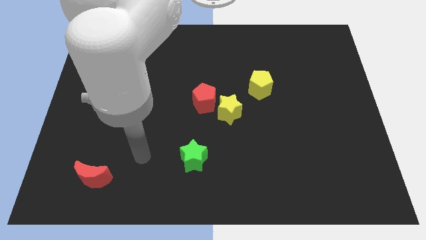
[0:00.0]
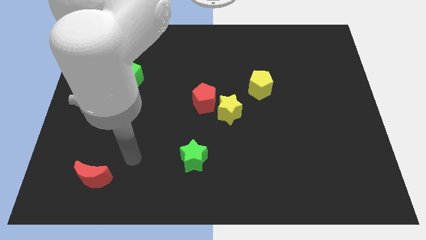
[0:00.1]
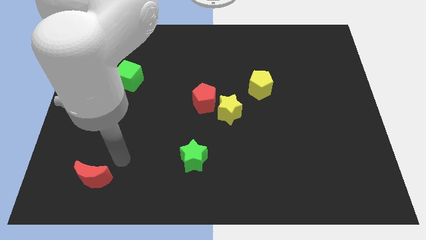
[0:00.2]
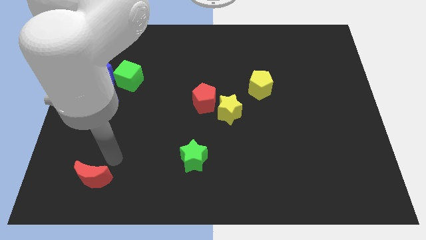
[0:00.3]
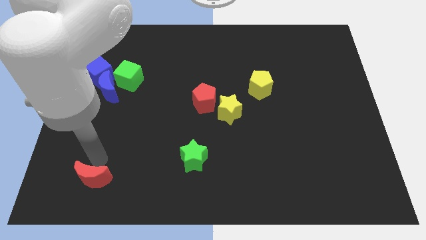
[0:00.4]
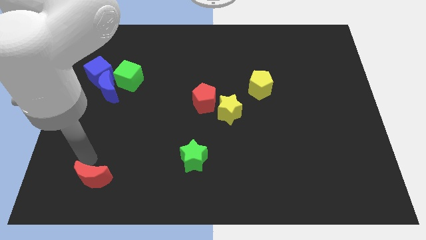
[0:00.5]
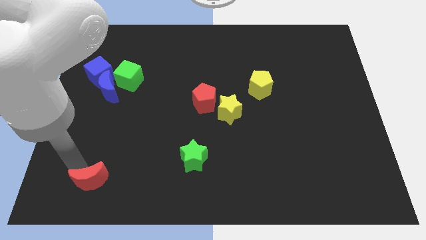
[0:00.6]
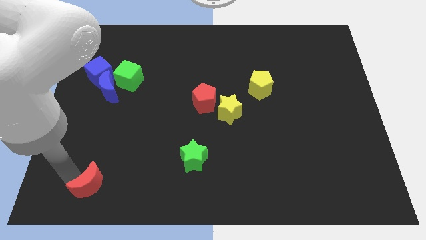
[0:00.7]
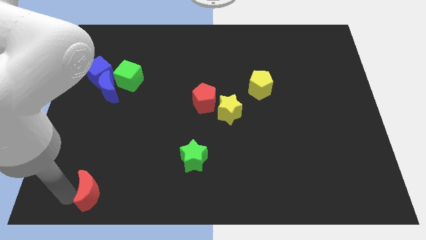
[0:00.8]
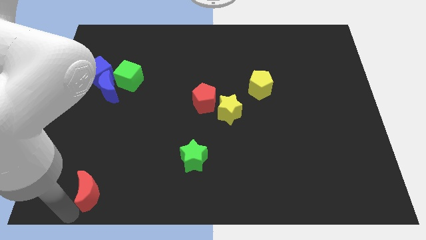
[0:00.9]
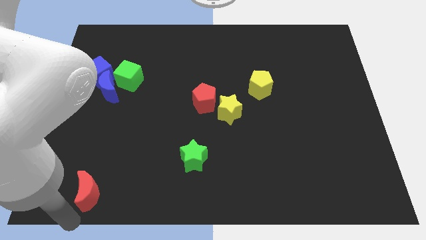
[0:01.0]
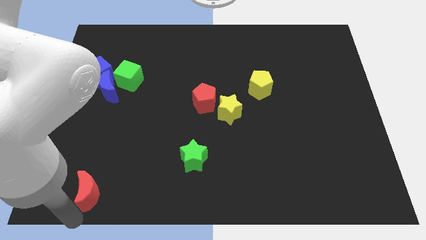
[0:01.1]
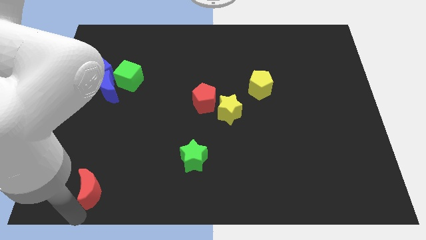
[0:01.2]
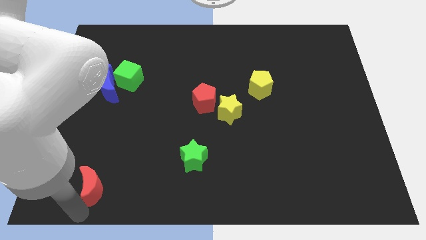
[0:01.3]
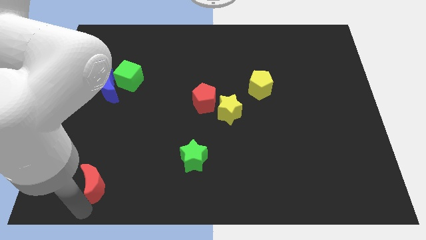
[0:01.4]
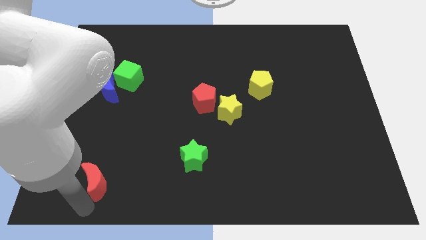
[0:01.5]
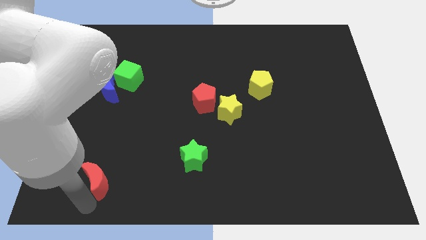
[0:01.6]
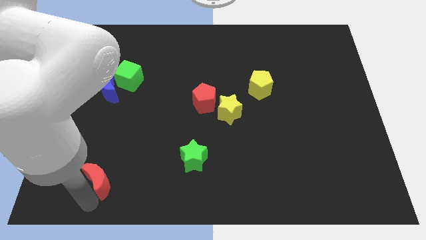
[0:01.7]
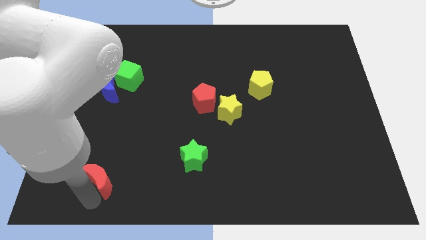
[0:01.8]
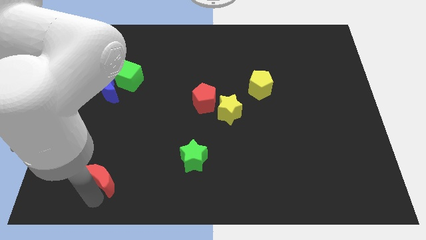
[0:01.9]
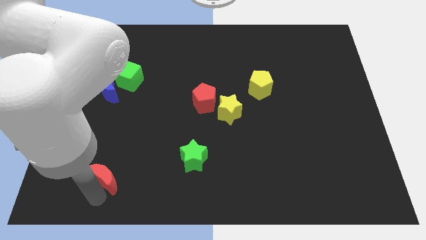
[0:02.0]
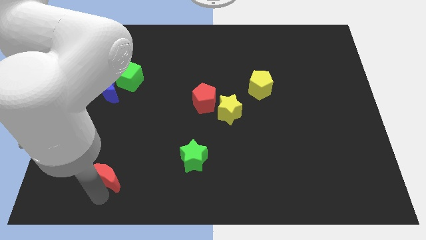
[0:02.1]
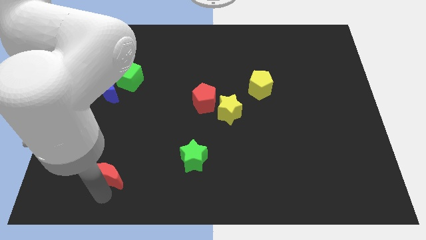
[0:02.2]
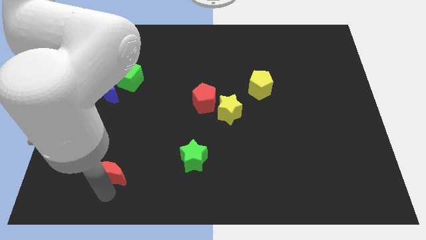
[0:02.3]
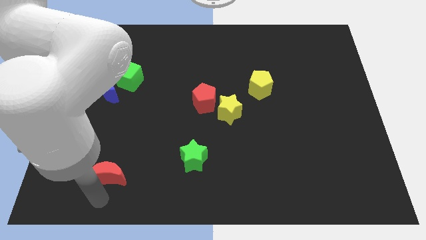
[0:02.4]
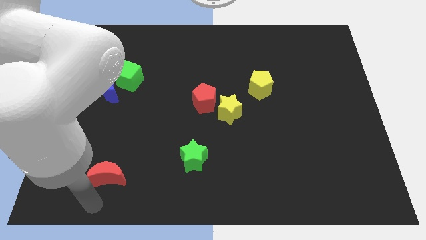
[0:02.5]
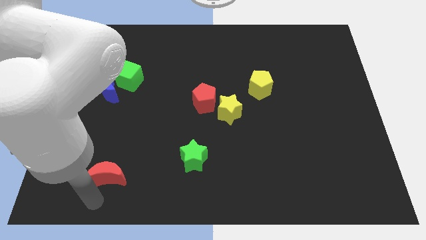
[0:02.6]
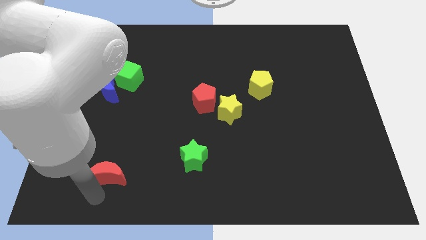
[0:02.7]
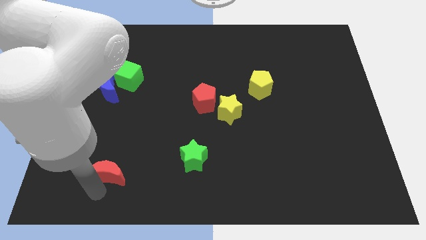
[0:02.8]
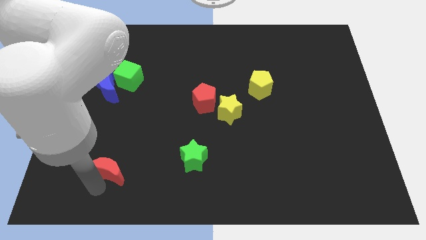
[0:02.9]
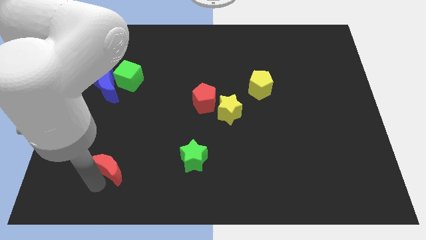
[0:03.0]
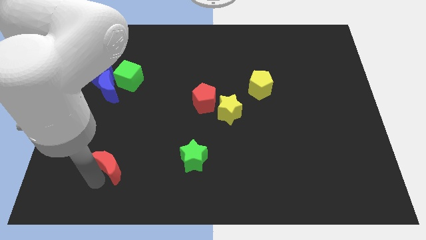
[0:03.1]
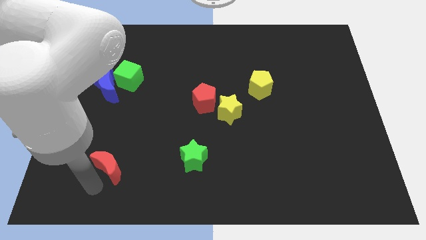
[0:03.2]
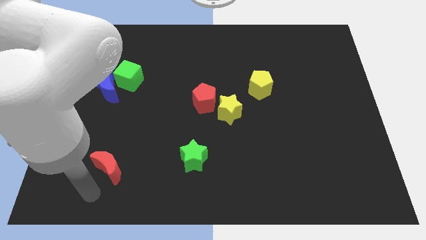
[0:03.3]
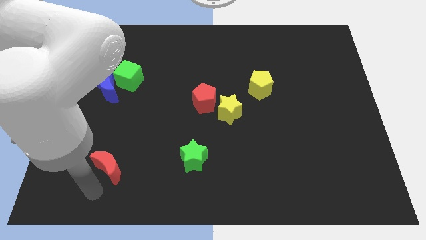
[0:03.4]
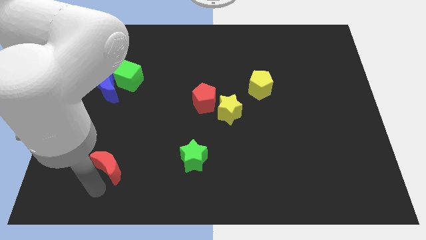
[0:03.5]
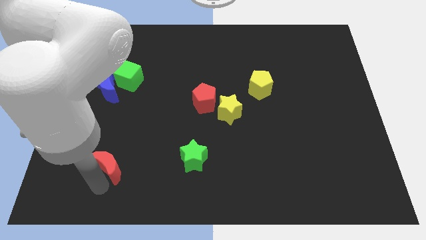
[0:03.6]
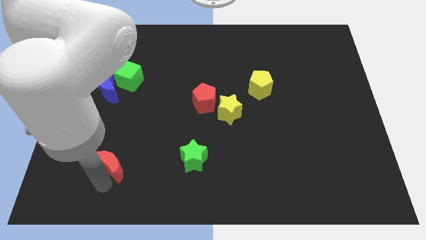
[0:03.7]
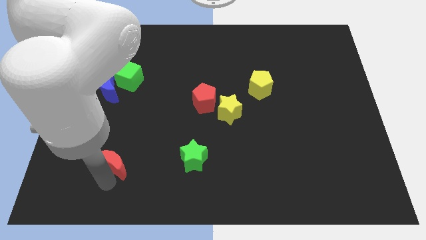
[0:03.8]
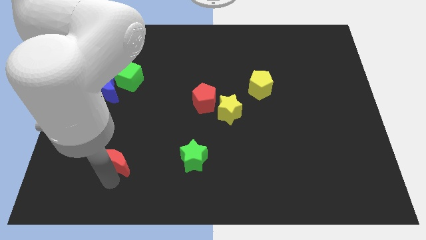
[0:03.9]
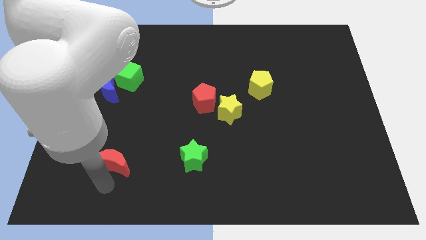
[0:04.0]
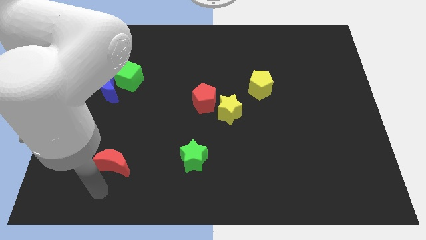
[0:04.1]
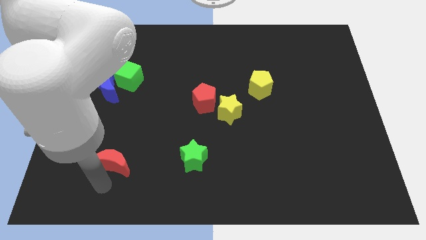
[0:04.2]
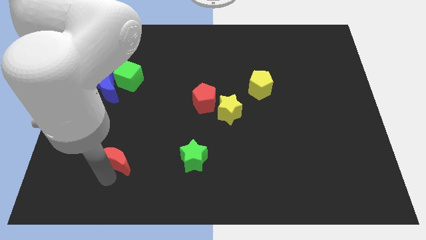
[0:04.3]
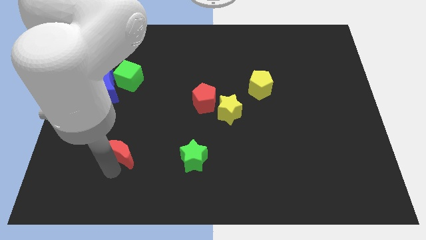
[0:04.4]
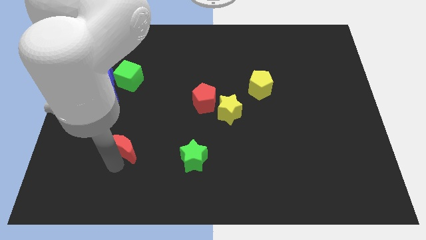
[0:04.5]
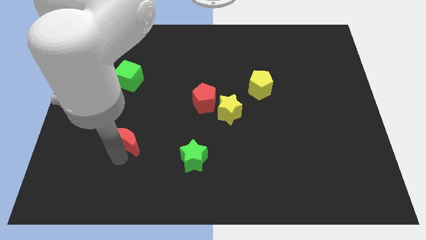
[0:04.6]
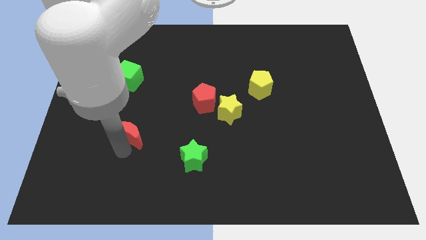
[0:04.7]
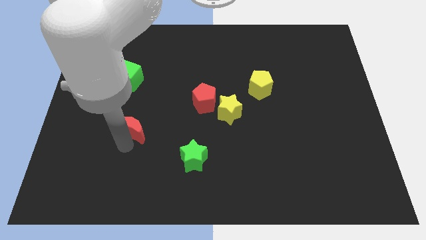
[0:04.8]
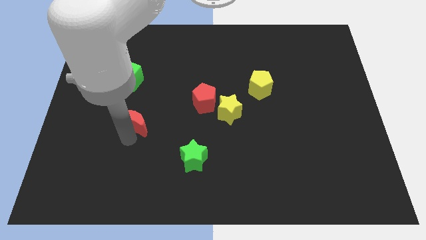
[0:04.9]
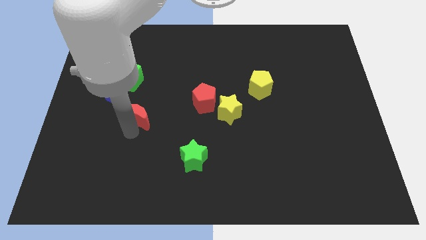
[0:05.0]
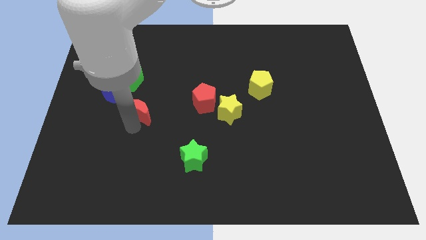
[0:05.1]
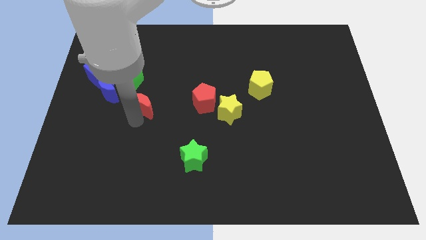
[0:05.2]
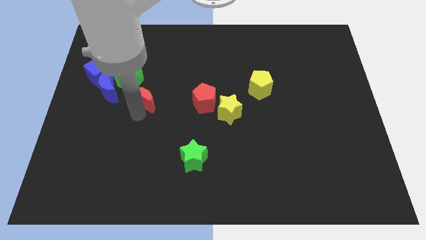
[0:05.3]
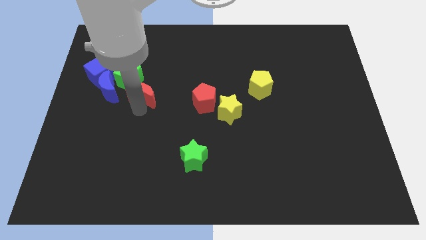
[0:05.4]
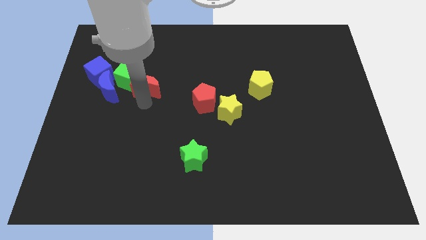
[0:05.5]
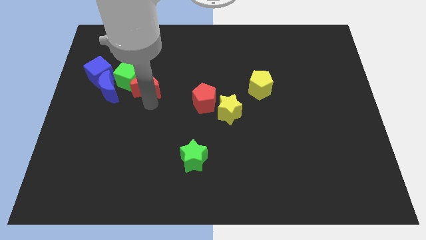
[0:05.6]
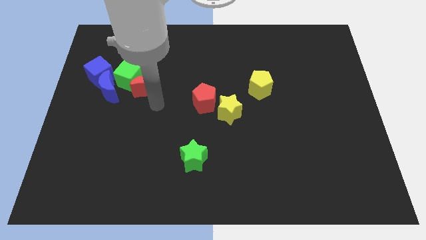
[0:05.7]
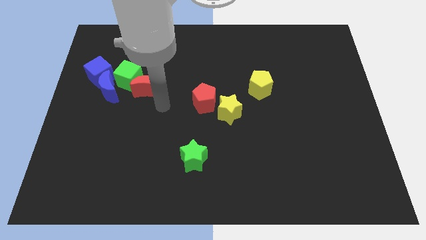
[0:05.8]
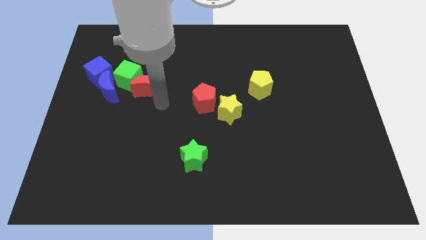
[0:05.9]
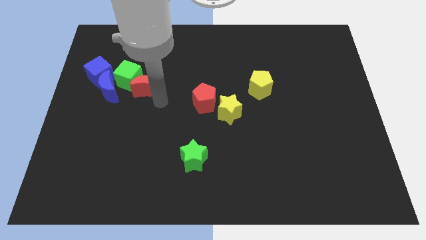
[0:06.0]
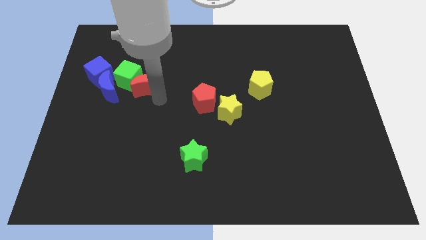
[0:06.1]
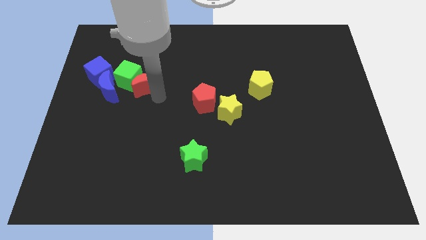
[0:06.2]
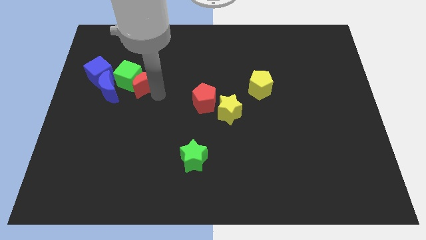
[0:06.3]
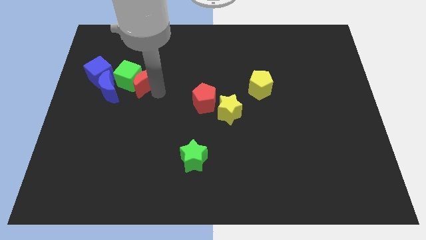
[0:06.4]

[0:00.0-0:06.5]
push the red moon diagonally up and to the right of the blue moon
